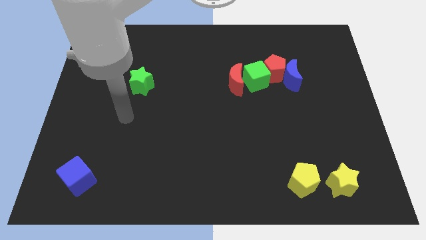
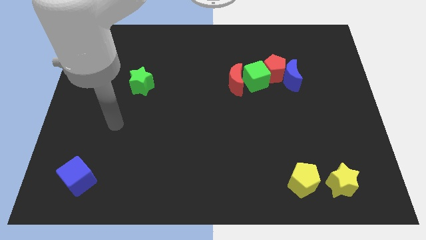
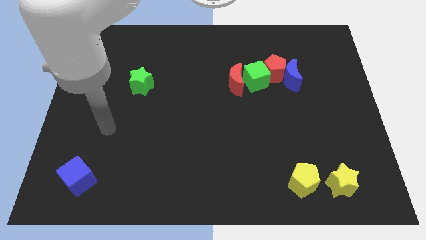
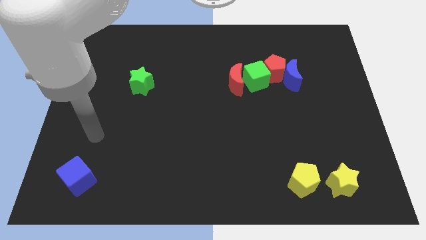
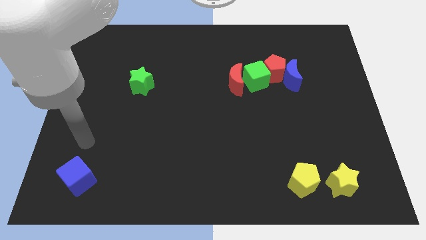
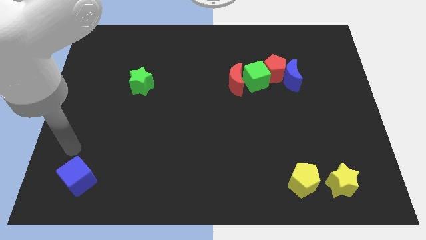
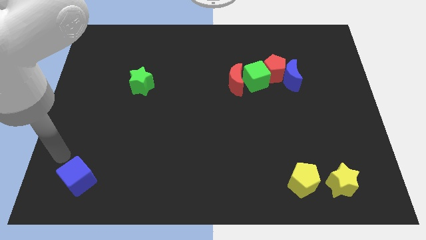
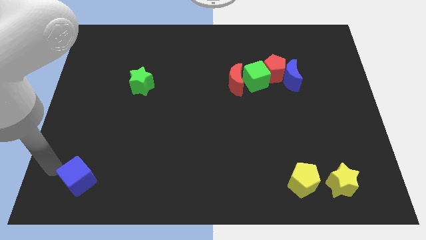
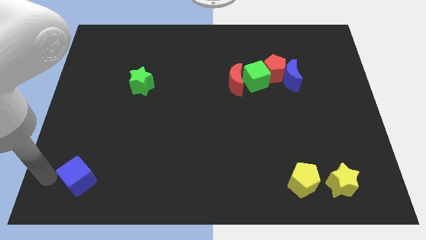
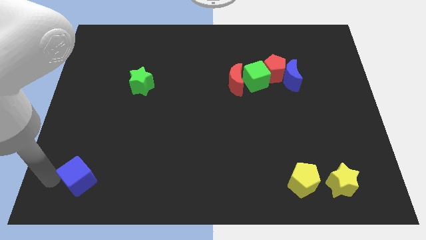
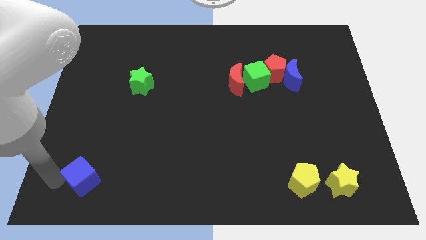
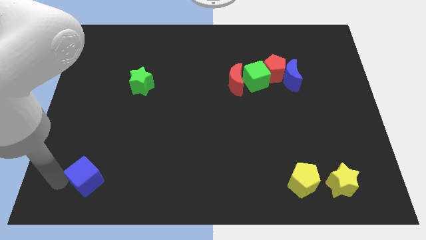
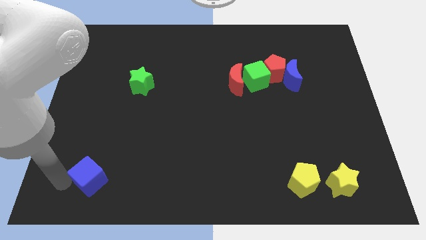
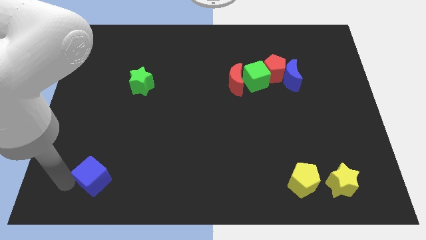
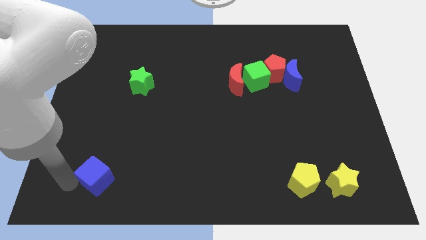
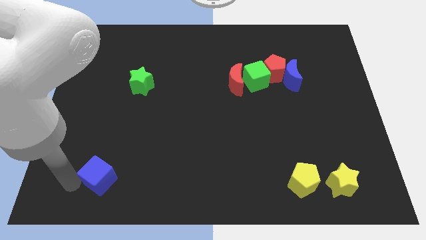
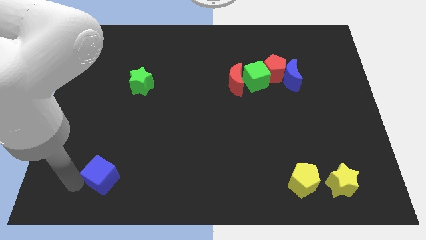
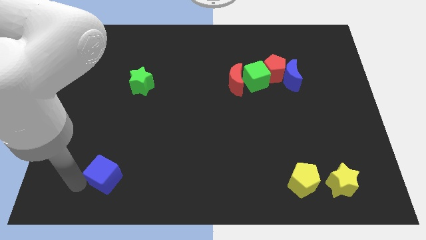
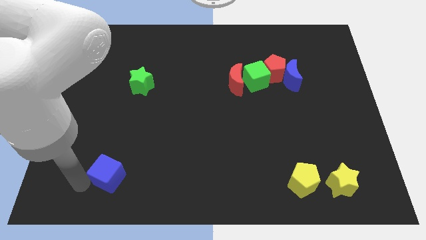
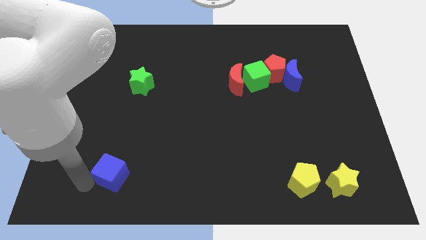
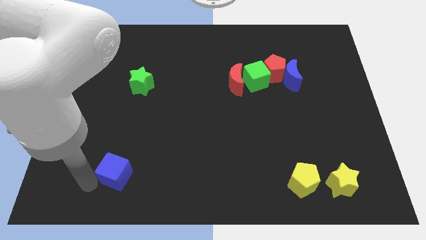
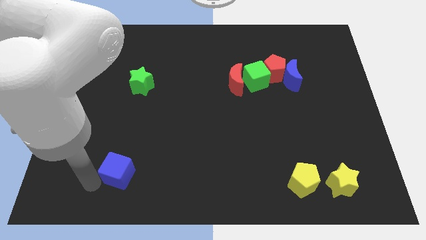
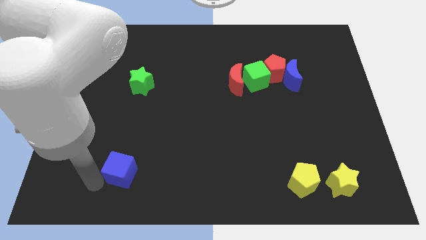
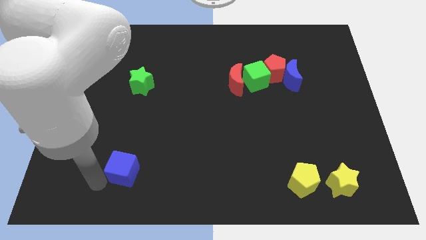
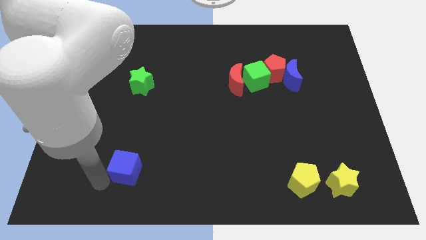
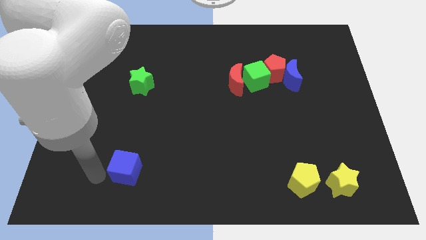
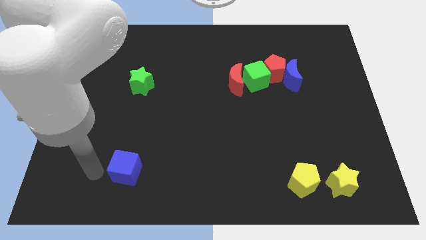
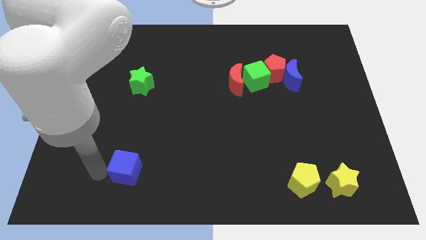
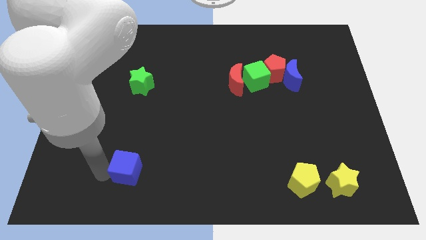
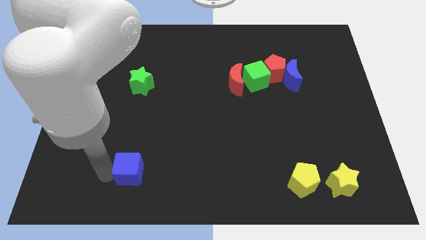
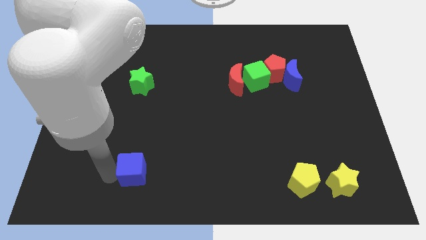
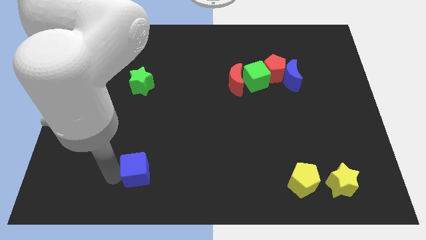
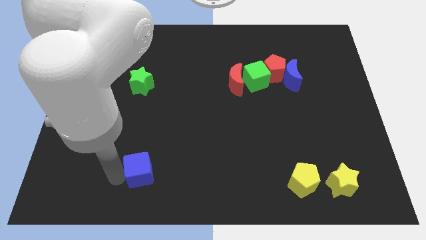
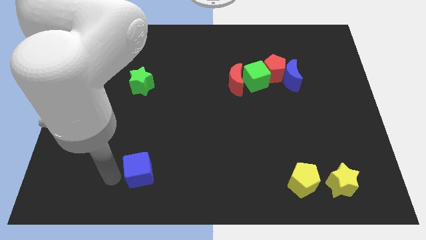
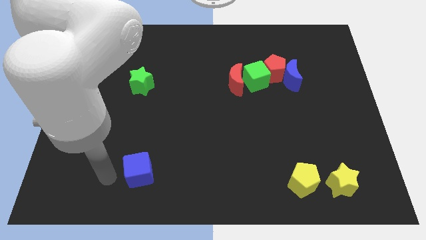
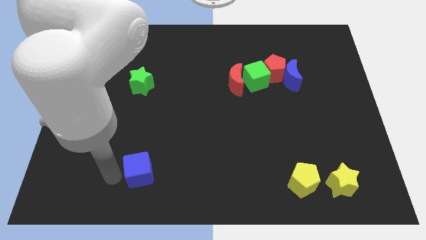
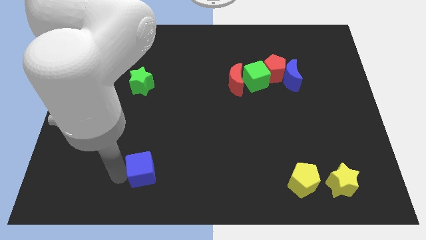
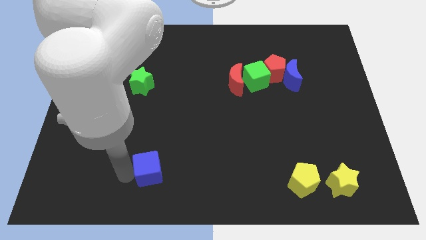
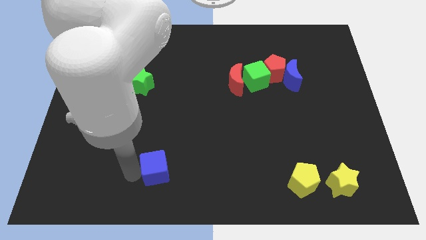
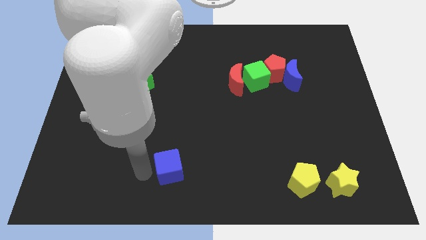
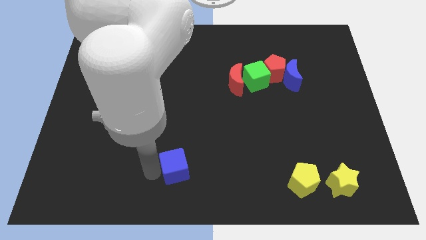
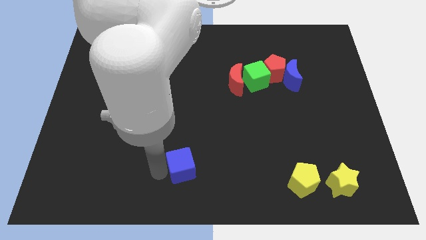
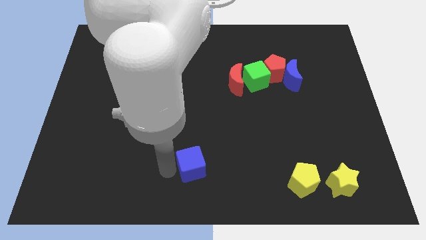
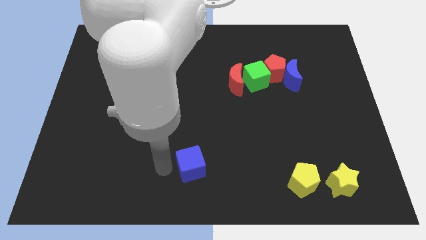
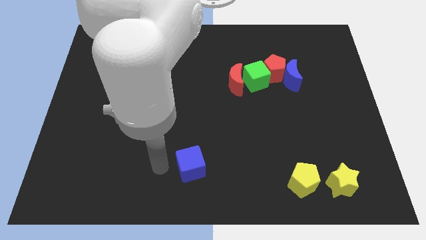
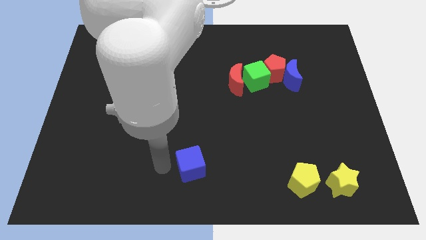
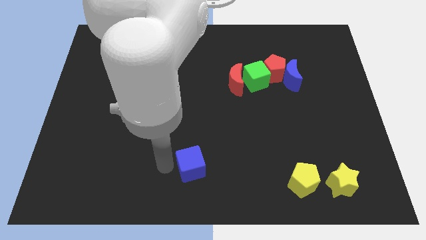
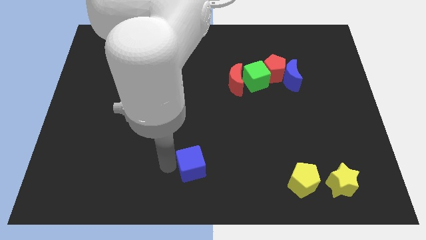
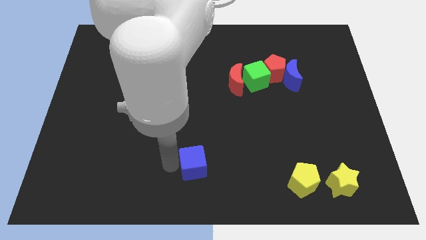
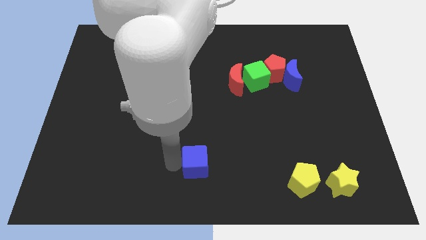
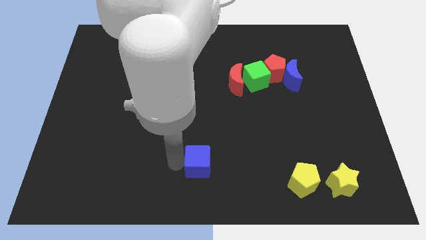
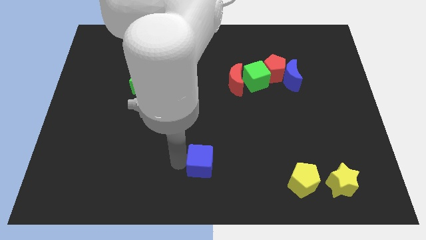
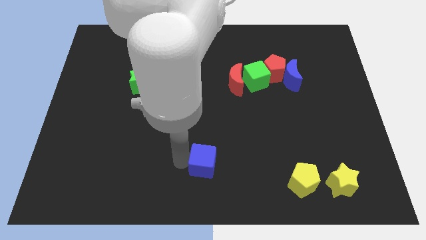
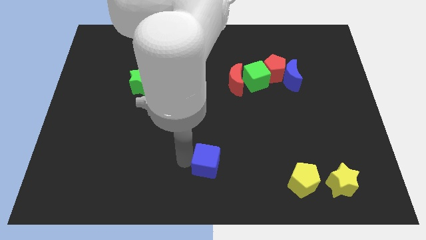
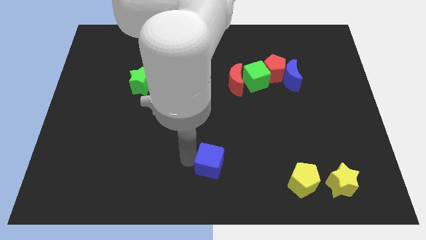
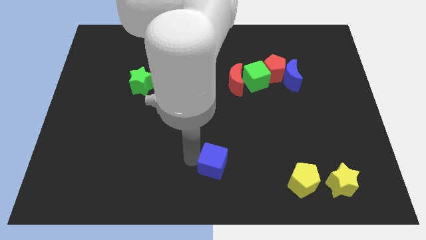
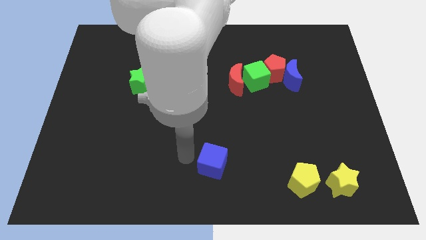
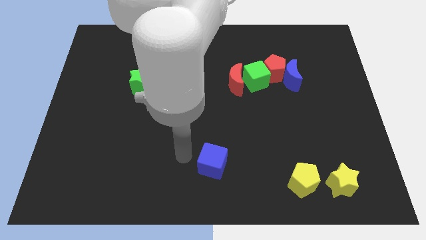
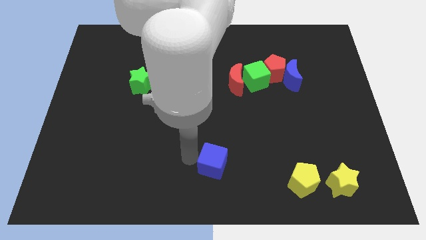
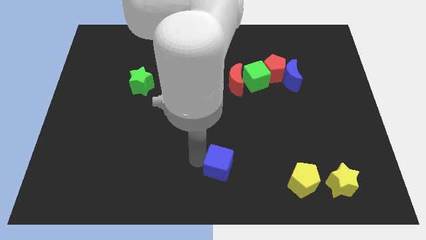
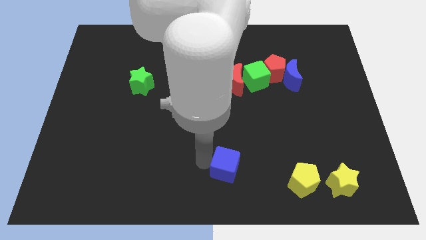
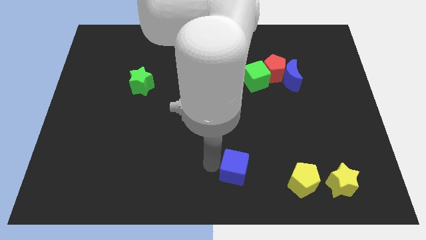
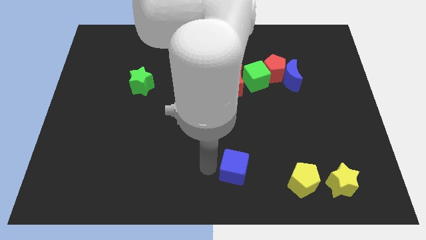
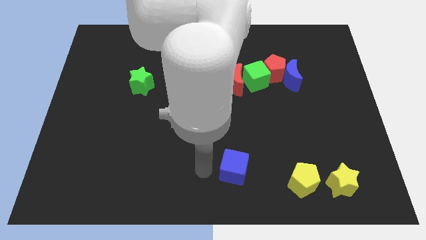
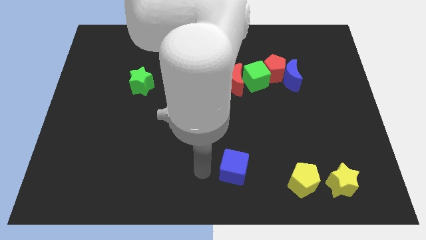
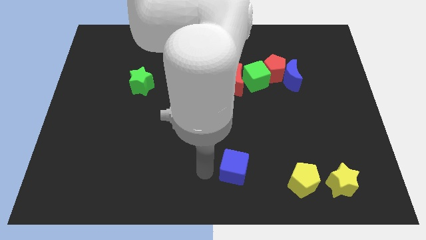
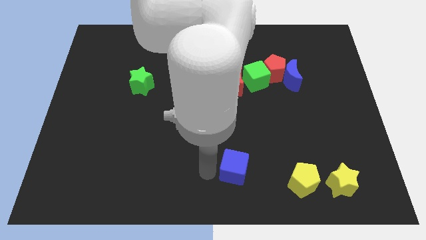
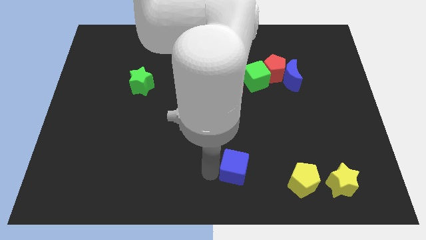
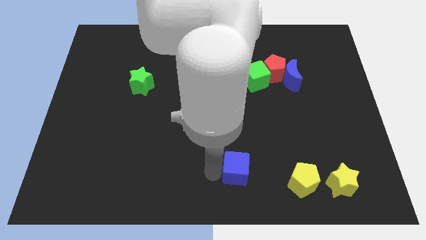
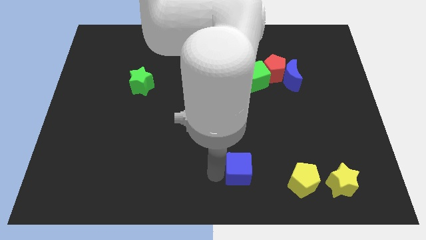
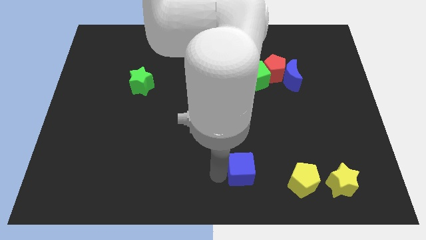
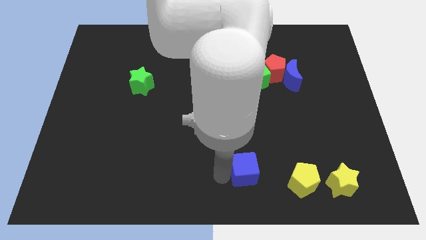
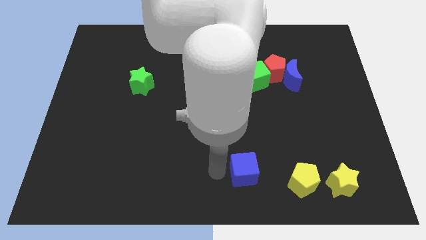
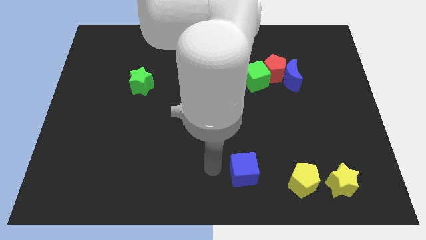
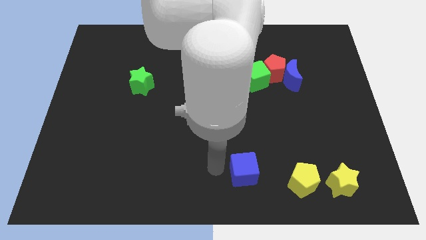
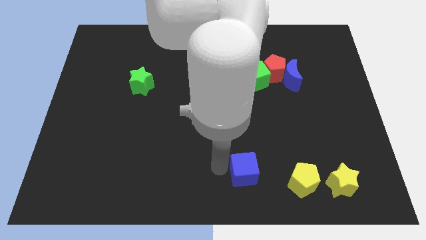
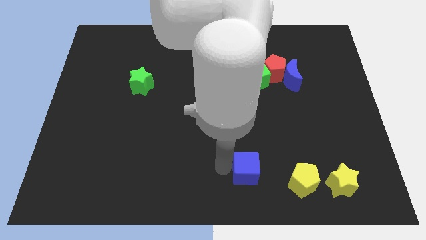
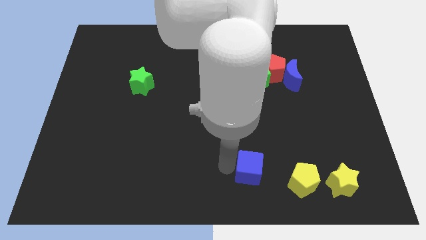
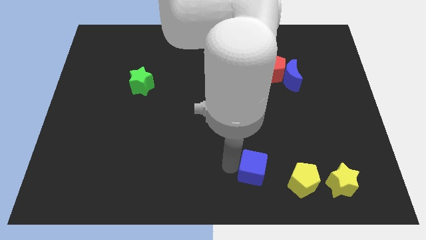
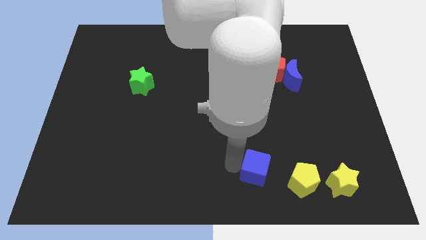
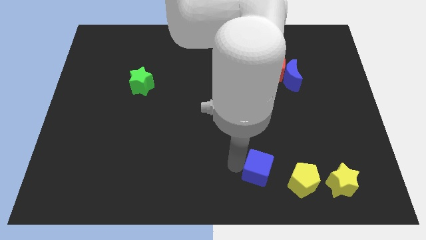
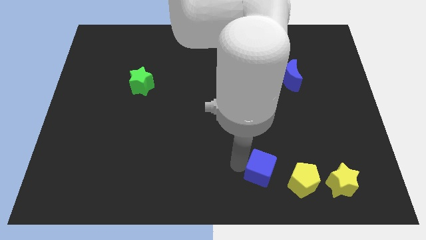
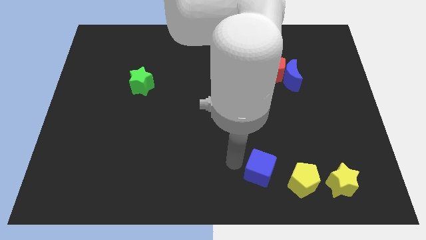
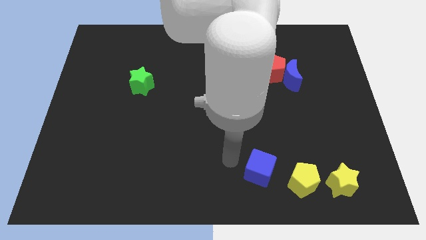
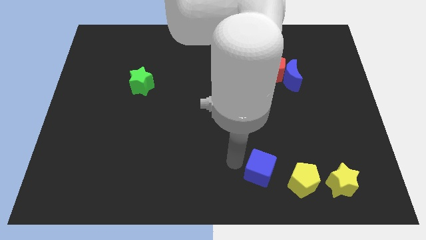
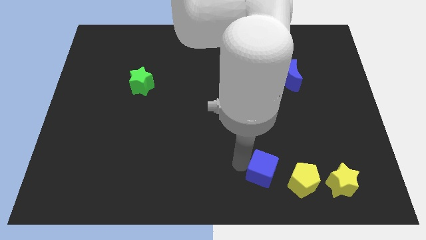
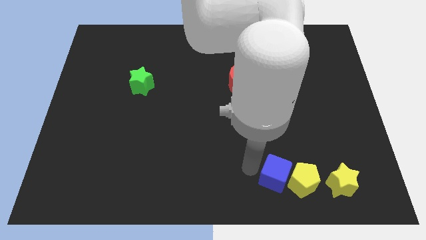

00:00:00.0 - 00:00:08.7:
move the blue cube towards the yellow pentagon
